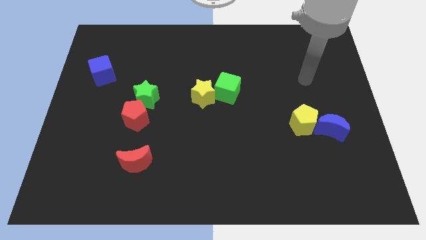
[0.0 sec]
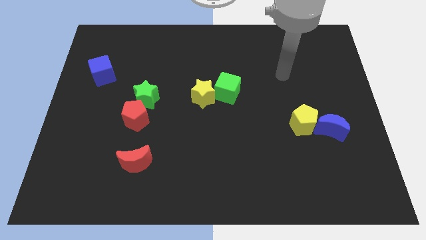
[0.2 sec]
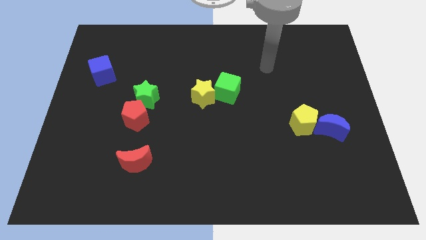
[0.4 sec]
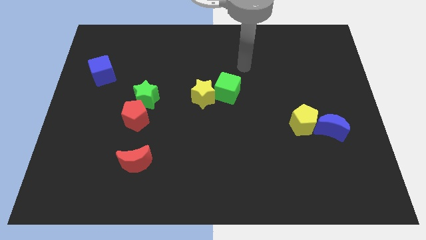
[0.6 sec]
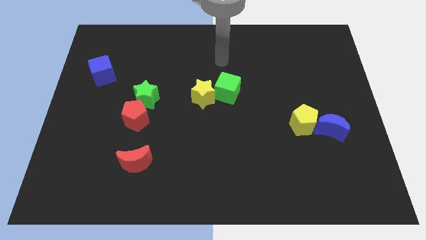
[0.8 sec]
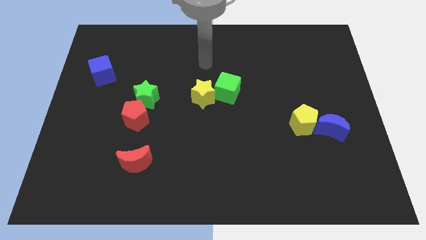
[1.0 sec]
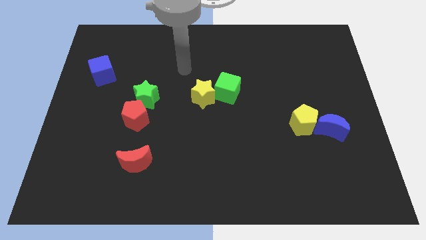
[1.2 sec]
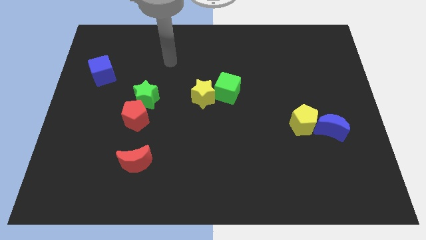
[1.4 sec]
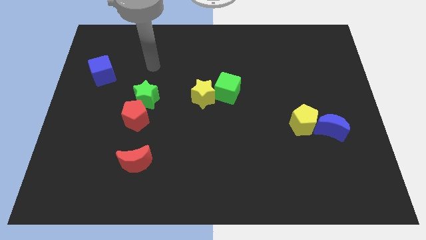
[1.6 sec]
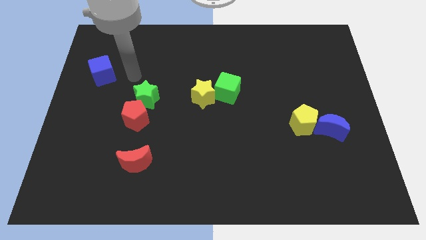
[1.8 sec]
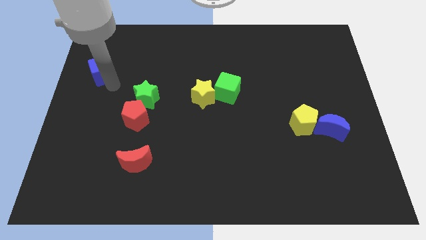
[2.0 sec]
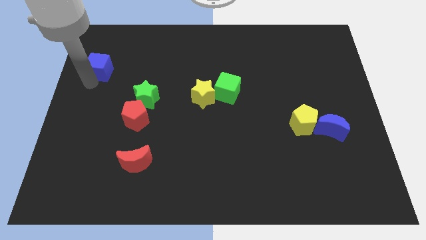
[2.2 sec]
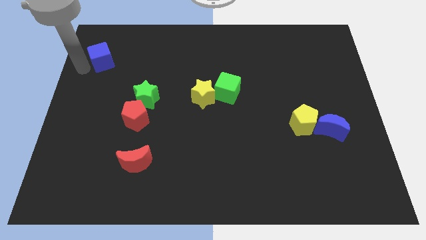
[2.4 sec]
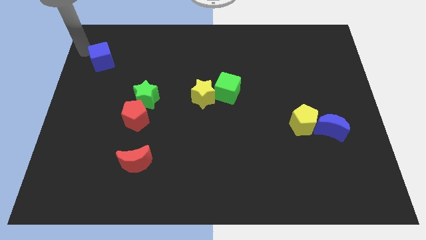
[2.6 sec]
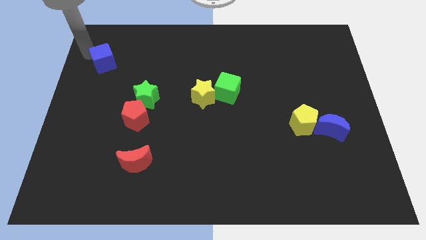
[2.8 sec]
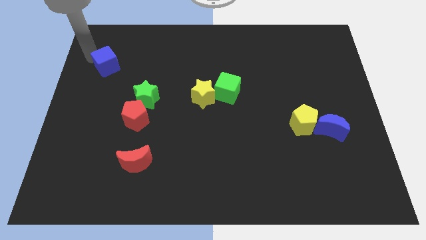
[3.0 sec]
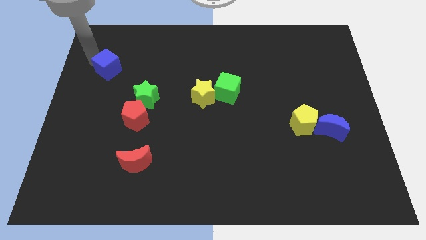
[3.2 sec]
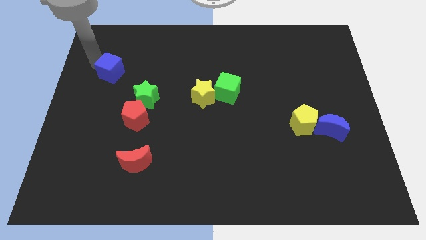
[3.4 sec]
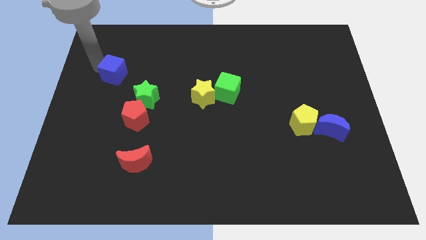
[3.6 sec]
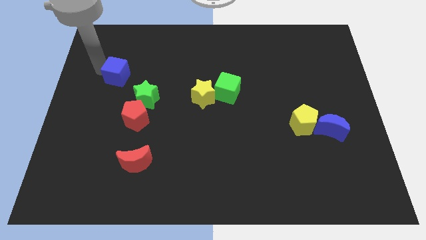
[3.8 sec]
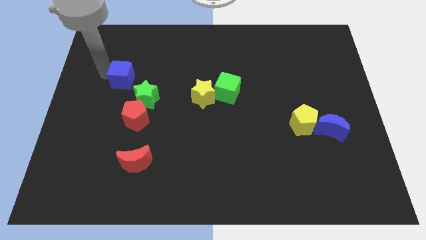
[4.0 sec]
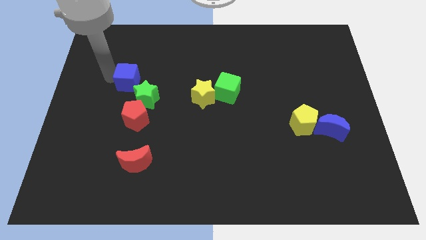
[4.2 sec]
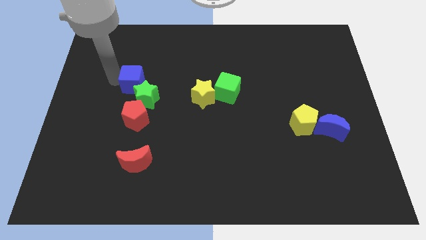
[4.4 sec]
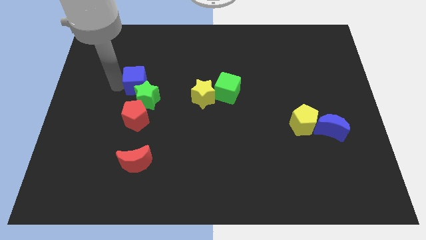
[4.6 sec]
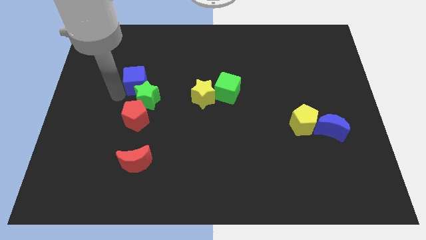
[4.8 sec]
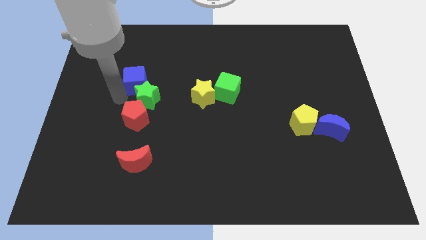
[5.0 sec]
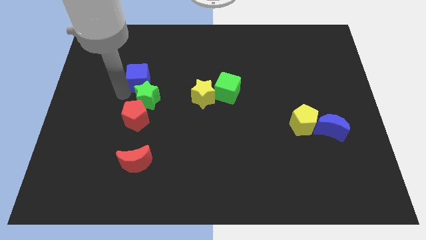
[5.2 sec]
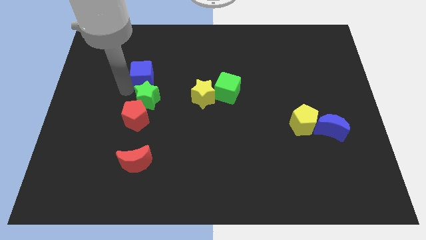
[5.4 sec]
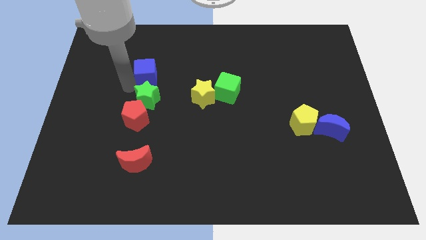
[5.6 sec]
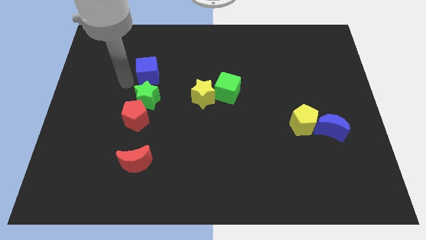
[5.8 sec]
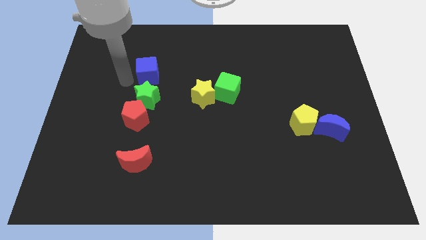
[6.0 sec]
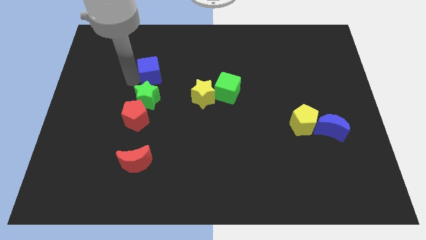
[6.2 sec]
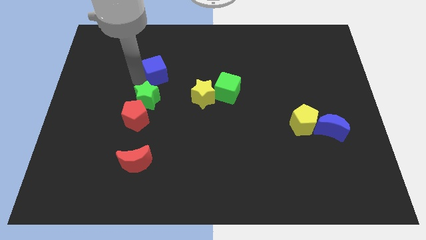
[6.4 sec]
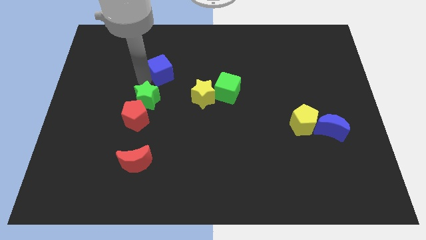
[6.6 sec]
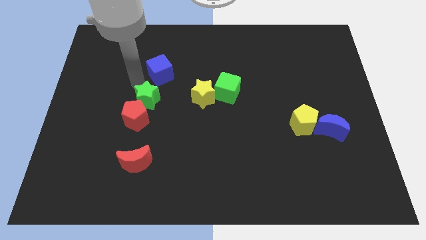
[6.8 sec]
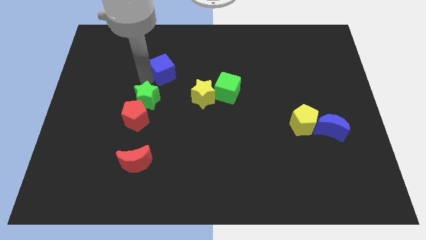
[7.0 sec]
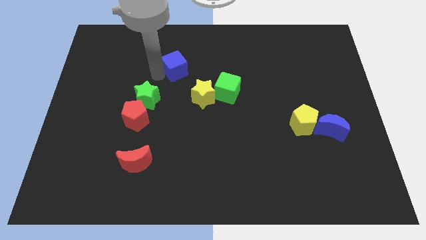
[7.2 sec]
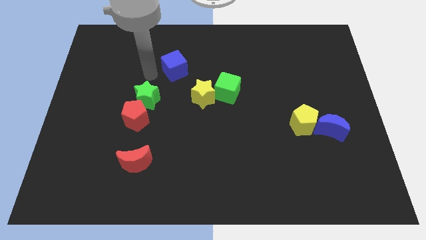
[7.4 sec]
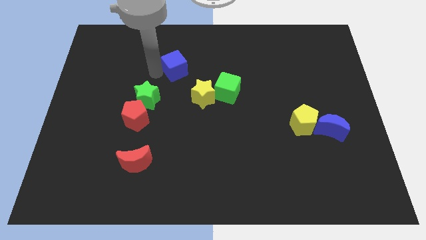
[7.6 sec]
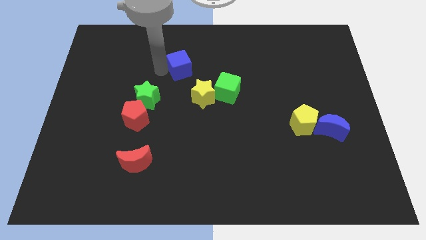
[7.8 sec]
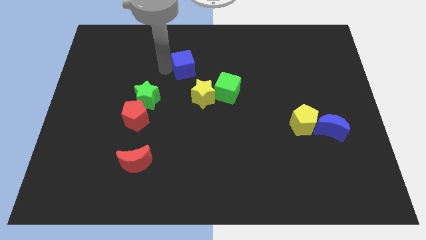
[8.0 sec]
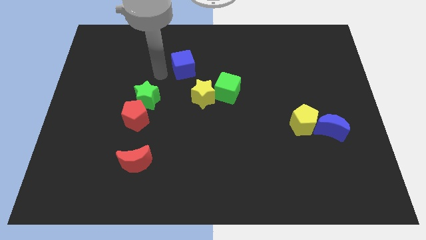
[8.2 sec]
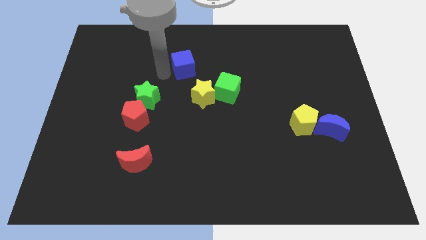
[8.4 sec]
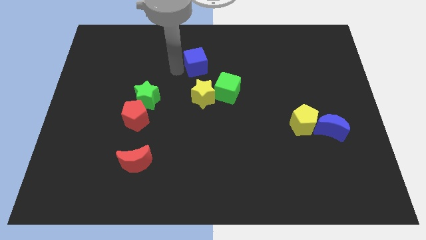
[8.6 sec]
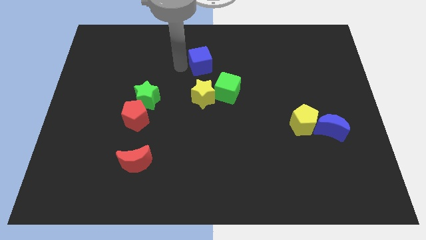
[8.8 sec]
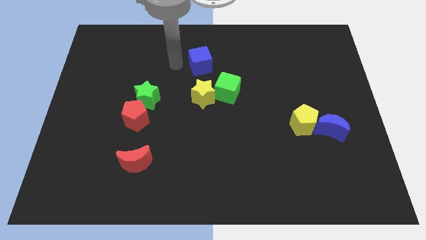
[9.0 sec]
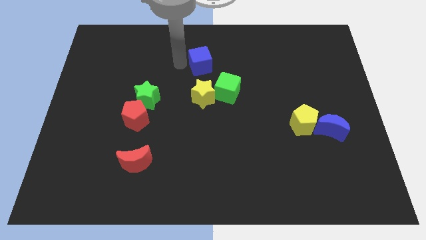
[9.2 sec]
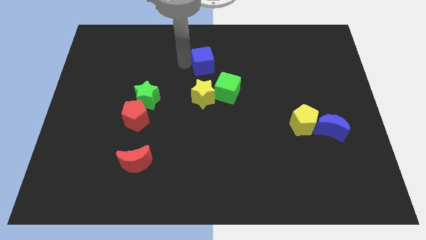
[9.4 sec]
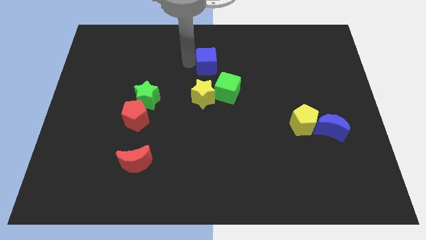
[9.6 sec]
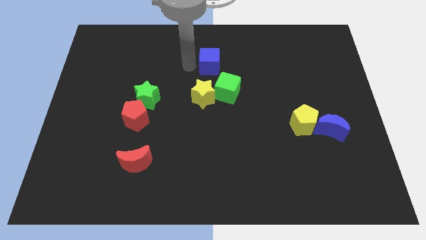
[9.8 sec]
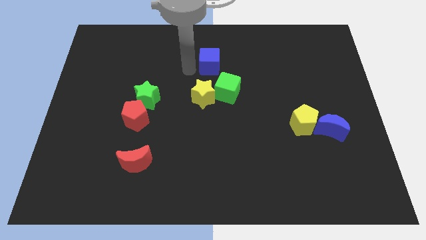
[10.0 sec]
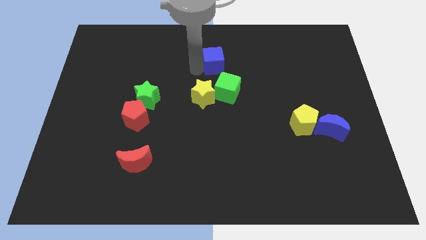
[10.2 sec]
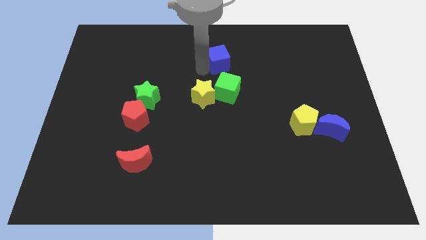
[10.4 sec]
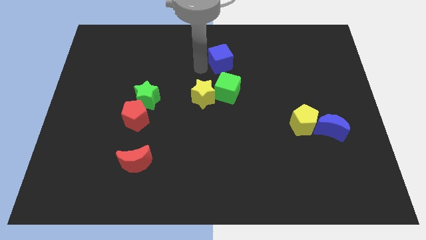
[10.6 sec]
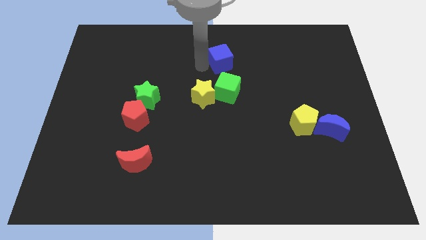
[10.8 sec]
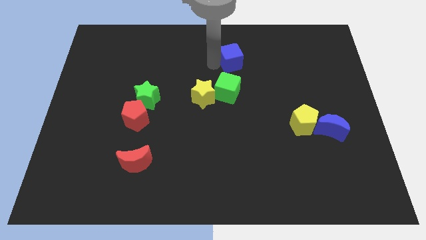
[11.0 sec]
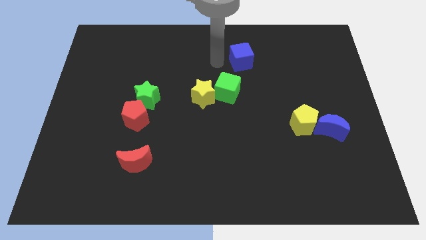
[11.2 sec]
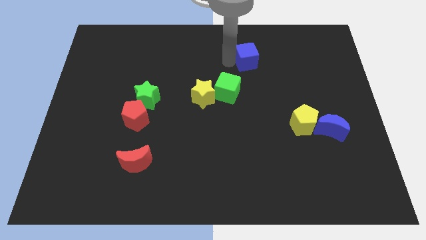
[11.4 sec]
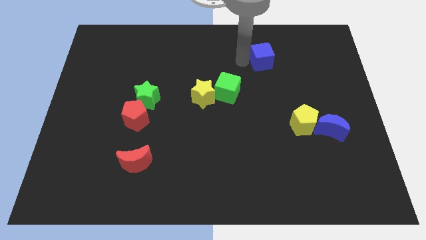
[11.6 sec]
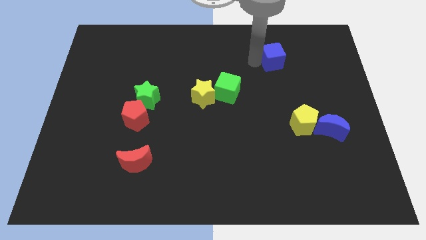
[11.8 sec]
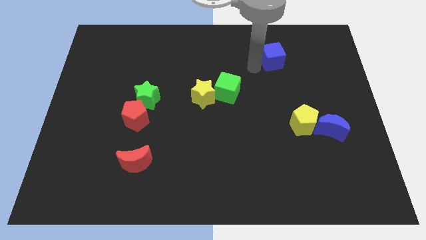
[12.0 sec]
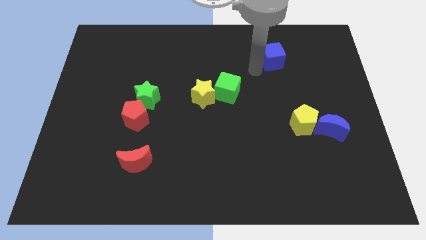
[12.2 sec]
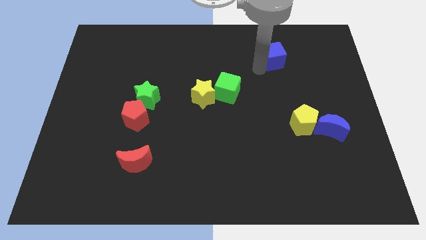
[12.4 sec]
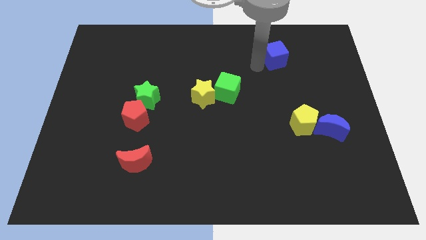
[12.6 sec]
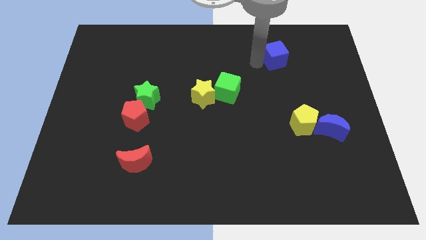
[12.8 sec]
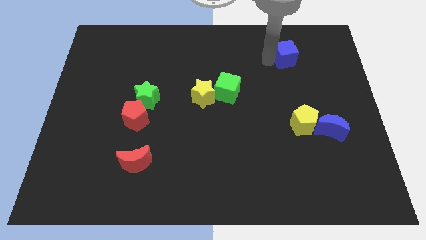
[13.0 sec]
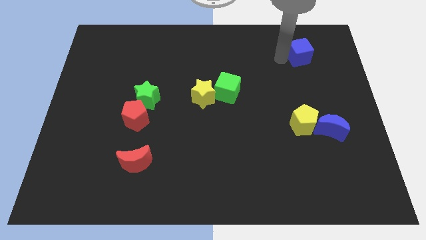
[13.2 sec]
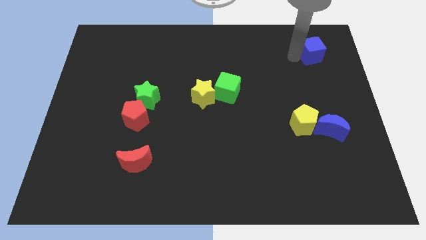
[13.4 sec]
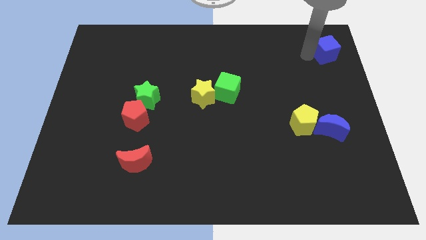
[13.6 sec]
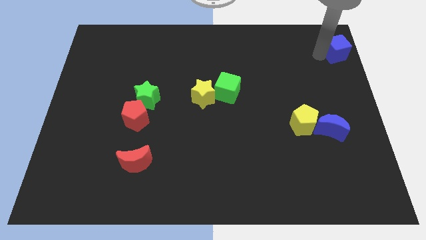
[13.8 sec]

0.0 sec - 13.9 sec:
move the blue cube to the upper right corner

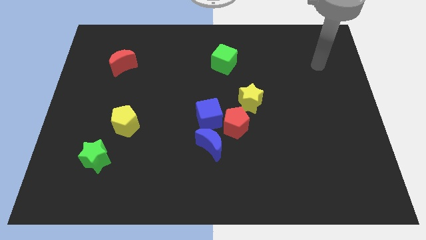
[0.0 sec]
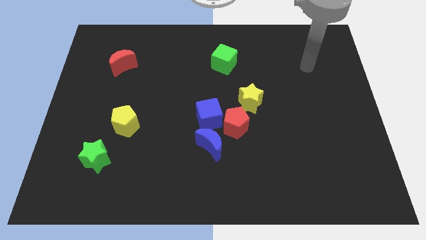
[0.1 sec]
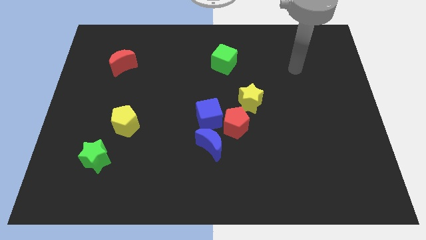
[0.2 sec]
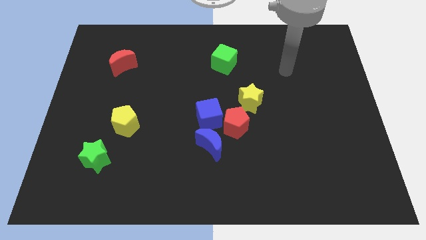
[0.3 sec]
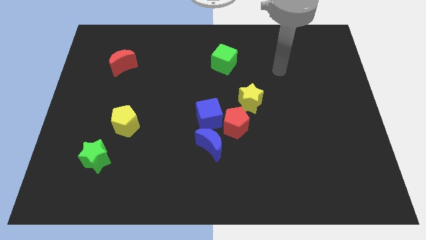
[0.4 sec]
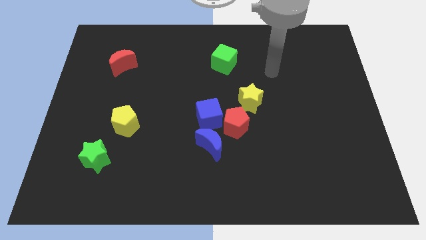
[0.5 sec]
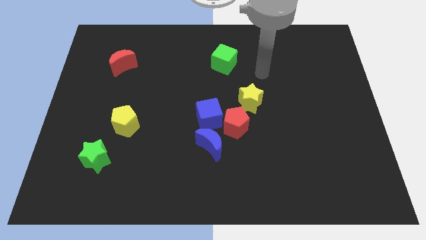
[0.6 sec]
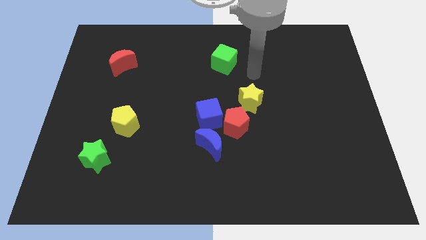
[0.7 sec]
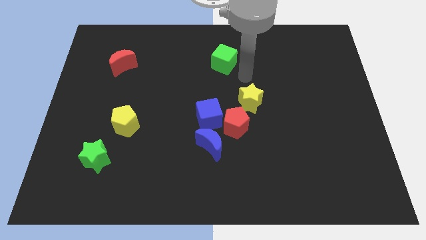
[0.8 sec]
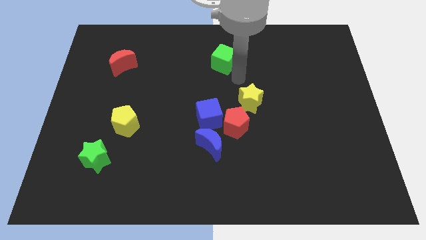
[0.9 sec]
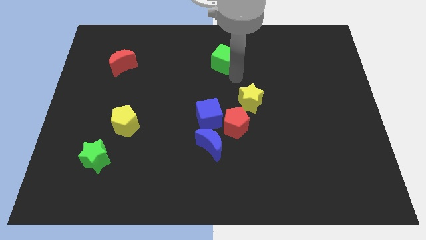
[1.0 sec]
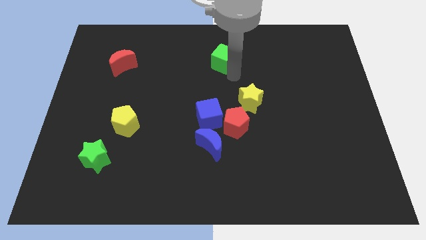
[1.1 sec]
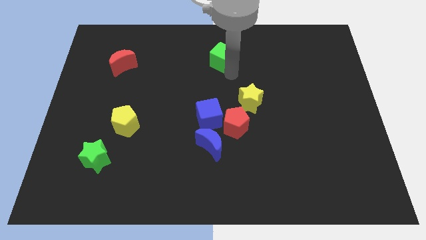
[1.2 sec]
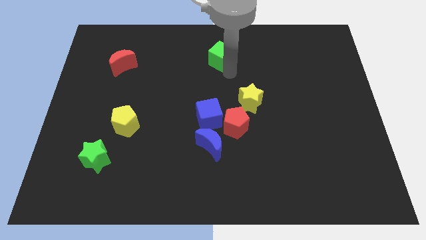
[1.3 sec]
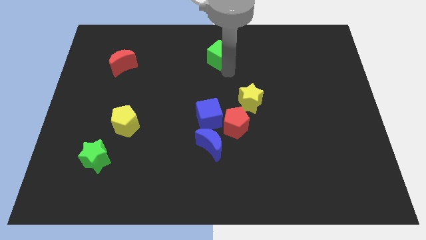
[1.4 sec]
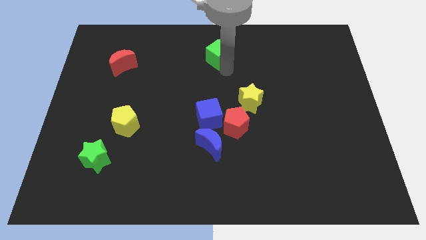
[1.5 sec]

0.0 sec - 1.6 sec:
push the green cube to the top side
